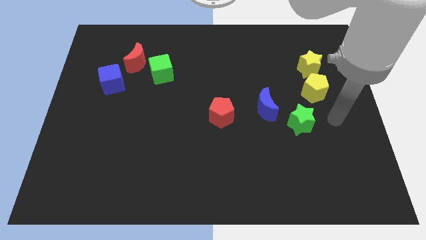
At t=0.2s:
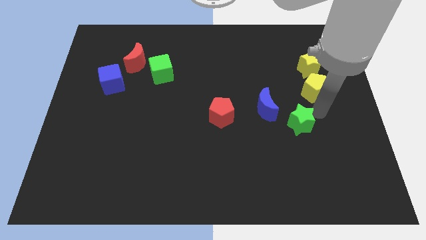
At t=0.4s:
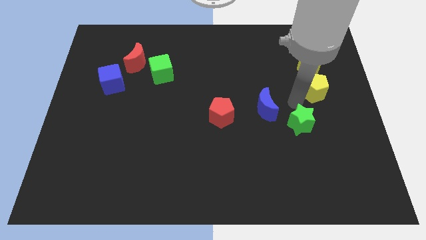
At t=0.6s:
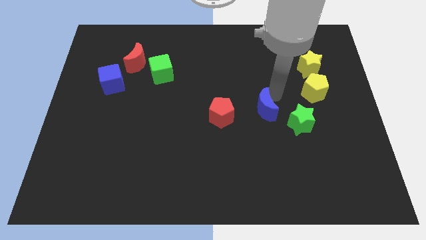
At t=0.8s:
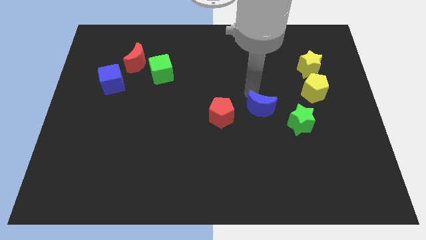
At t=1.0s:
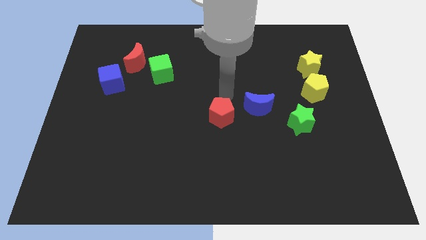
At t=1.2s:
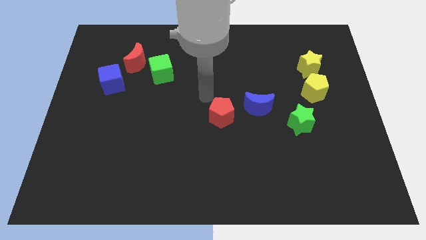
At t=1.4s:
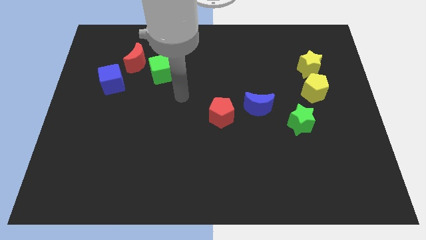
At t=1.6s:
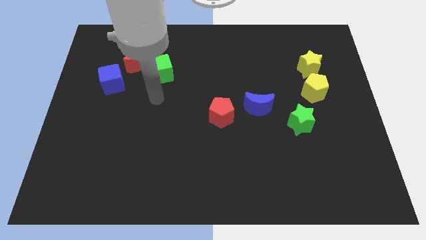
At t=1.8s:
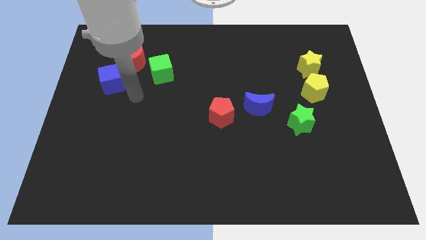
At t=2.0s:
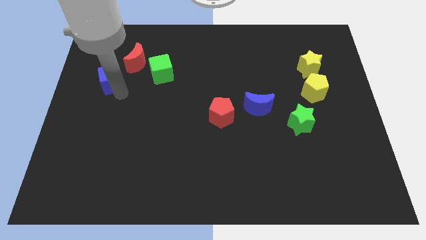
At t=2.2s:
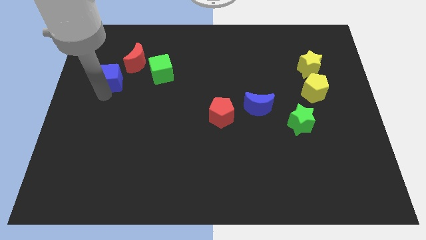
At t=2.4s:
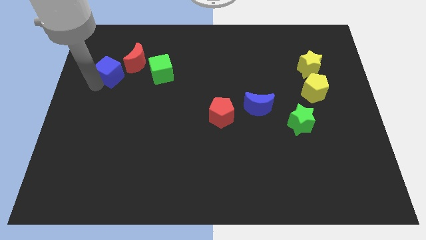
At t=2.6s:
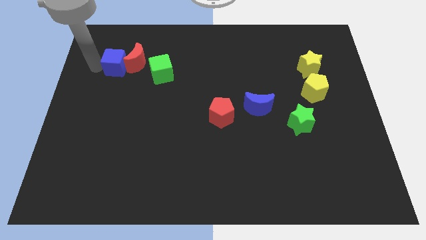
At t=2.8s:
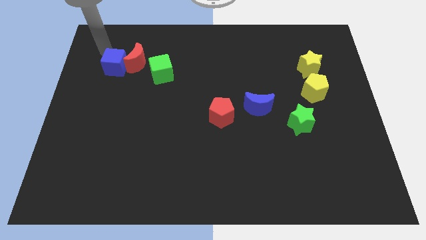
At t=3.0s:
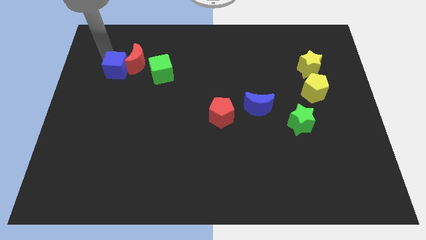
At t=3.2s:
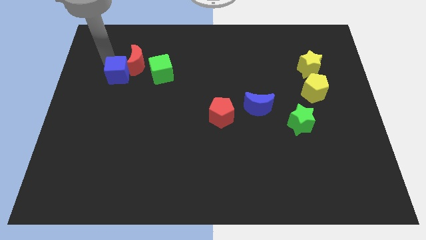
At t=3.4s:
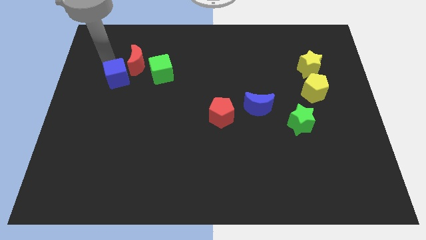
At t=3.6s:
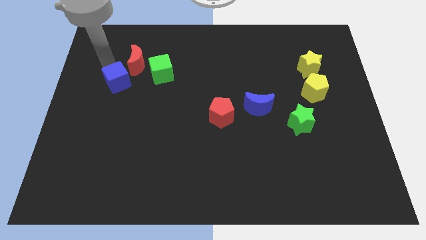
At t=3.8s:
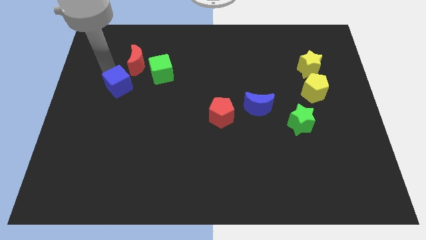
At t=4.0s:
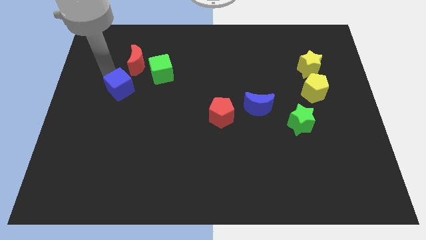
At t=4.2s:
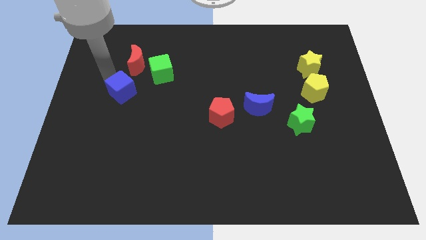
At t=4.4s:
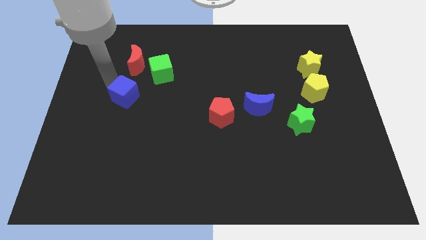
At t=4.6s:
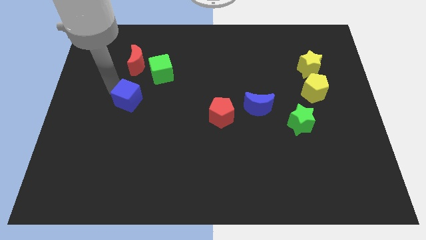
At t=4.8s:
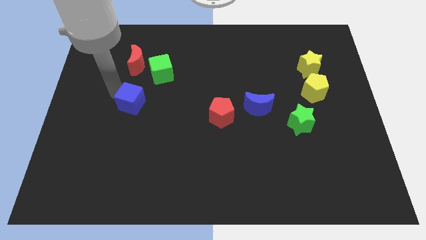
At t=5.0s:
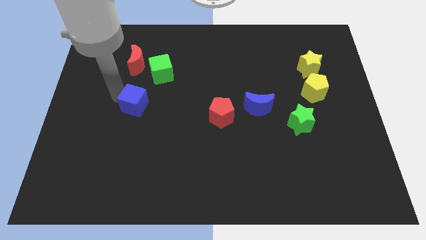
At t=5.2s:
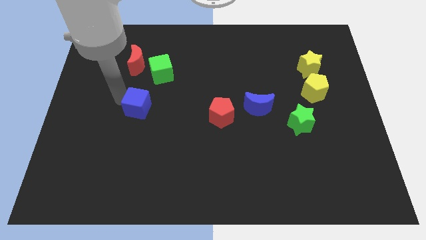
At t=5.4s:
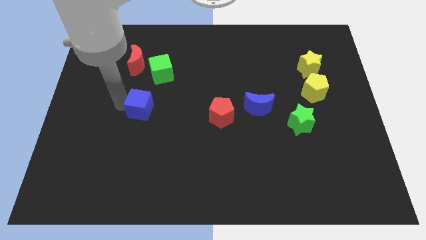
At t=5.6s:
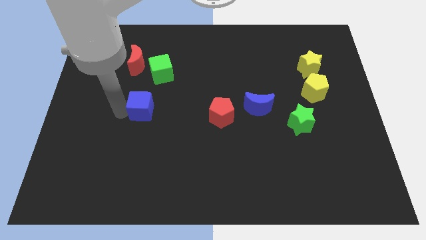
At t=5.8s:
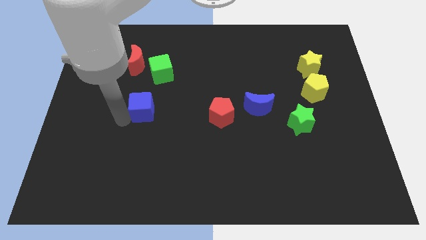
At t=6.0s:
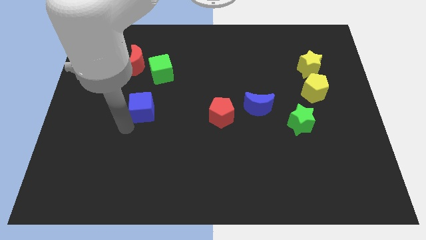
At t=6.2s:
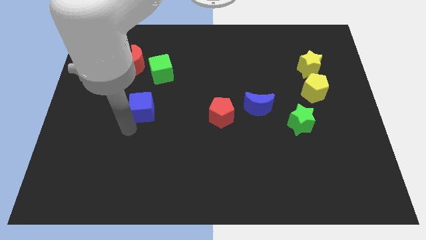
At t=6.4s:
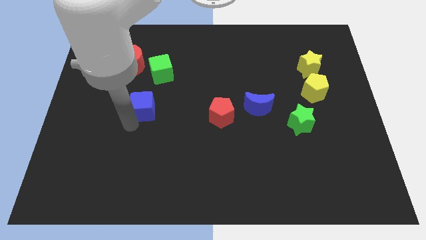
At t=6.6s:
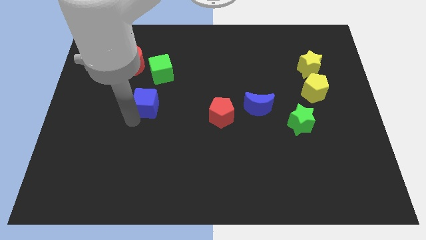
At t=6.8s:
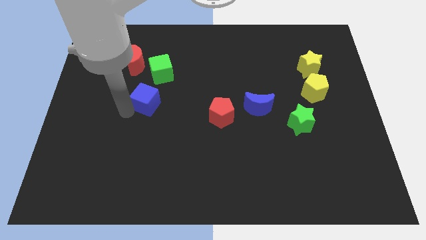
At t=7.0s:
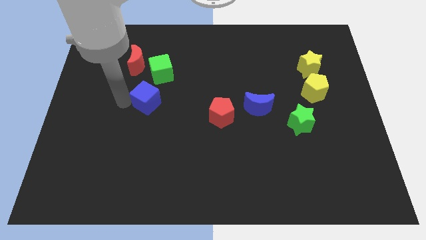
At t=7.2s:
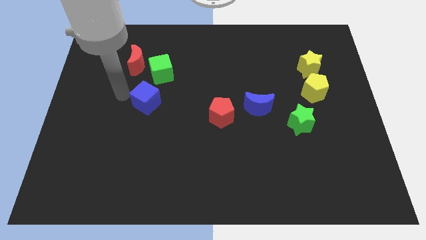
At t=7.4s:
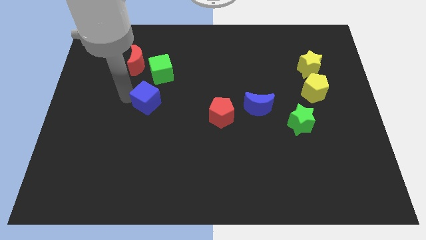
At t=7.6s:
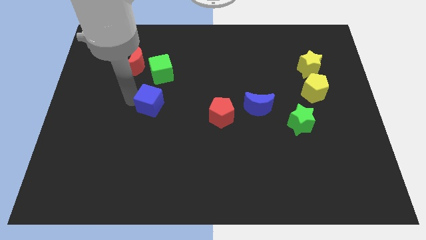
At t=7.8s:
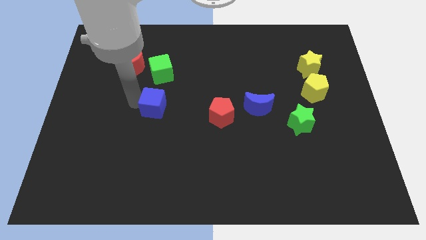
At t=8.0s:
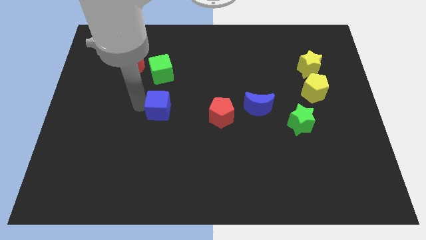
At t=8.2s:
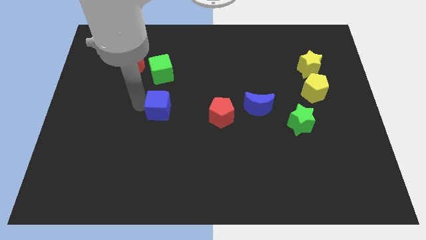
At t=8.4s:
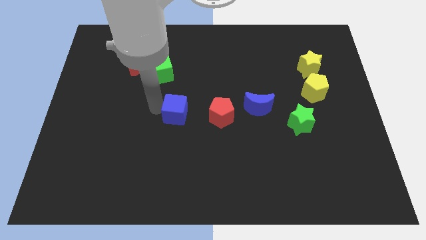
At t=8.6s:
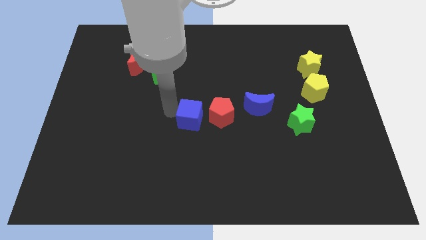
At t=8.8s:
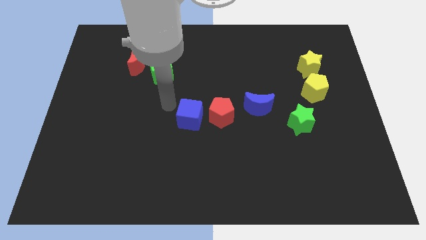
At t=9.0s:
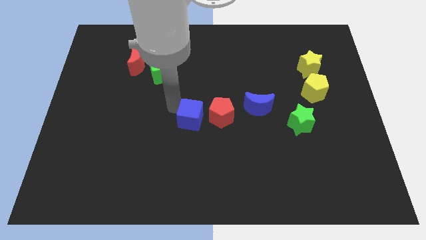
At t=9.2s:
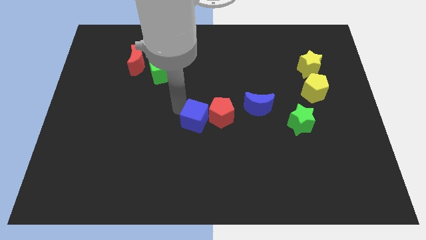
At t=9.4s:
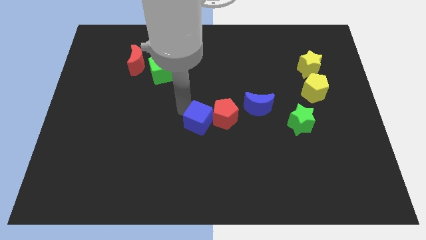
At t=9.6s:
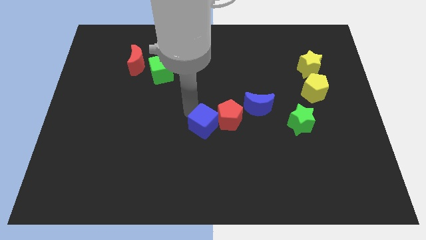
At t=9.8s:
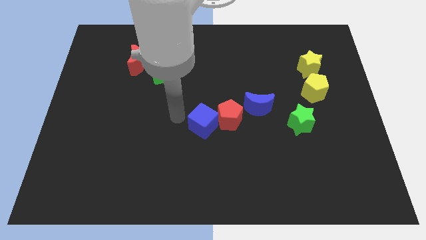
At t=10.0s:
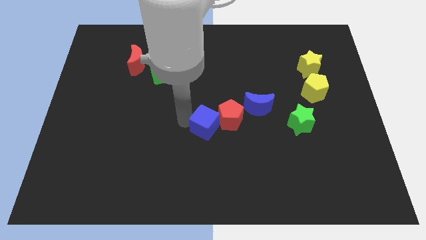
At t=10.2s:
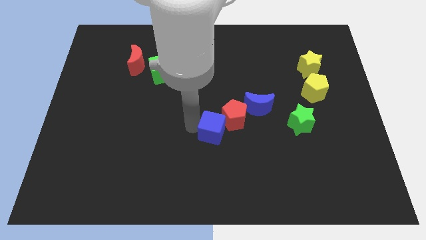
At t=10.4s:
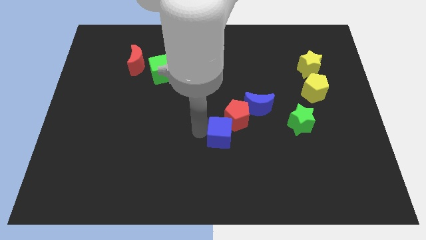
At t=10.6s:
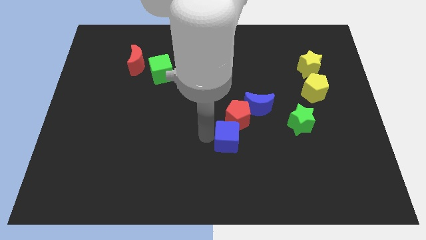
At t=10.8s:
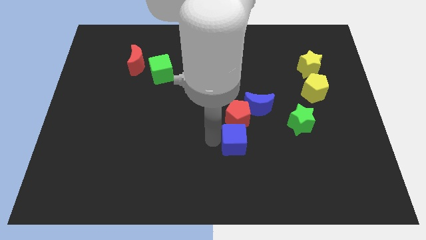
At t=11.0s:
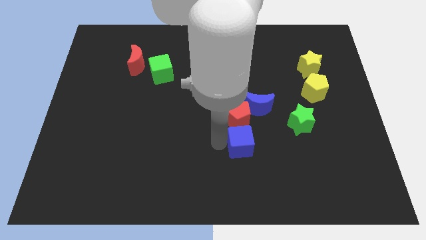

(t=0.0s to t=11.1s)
push the blue cube to the bottom right of the red pentagon

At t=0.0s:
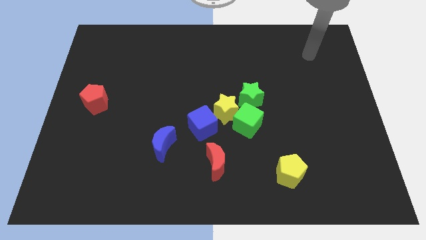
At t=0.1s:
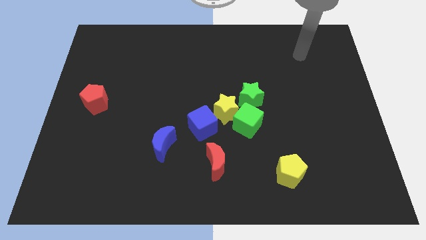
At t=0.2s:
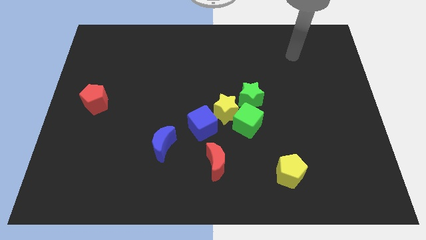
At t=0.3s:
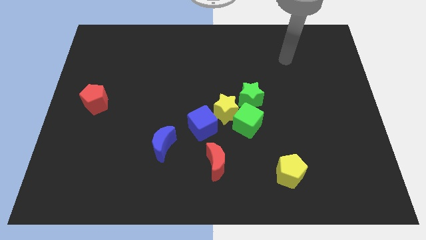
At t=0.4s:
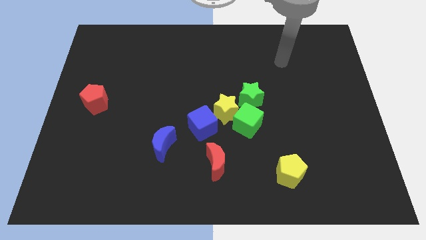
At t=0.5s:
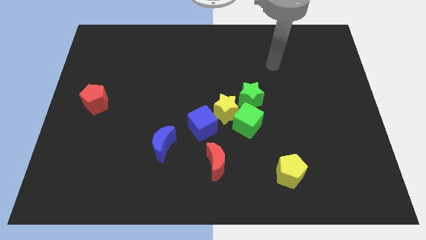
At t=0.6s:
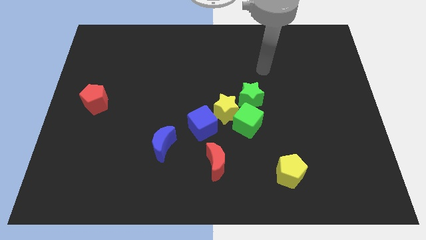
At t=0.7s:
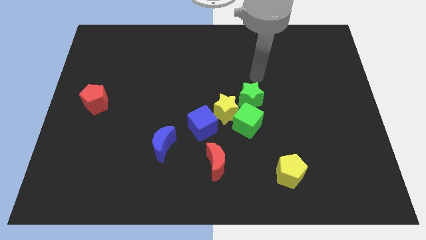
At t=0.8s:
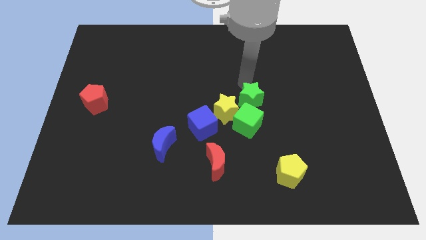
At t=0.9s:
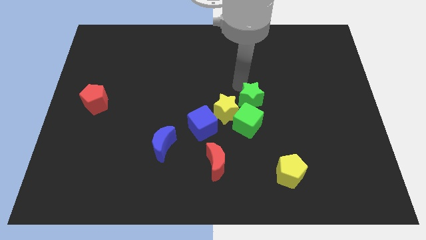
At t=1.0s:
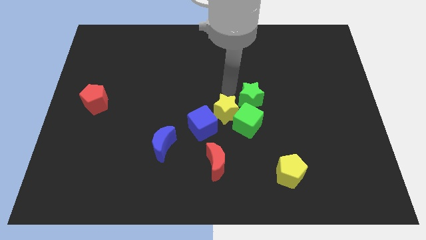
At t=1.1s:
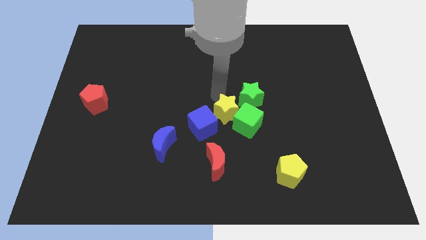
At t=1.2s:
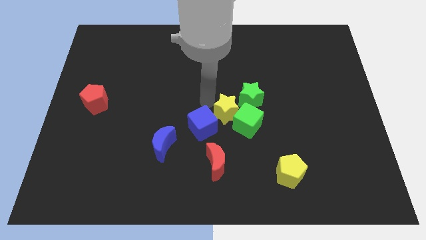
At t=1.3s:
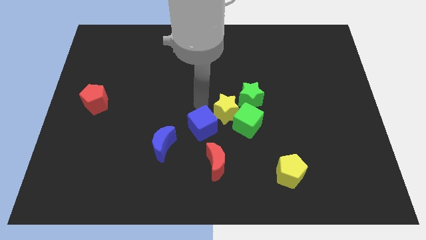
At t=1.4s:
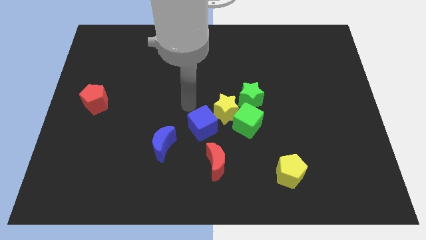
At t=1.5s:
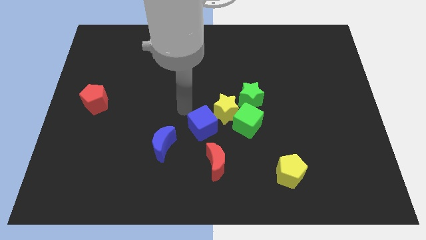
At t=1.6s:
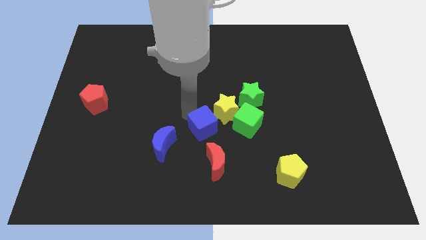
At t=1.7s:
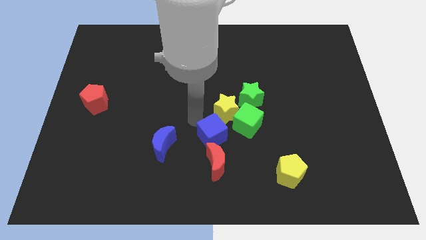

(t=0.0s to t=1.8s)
put the blue cube to the bottom of the yellow star

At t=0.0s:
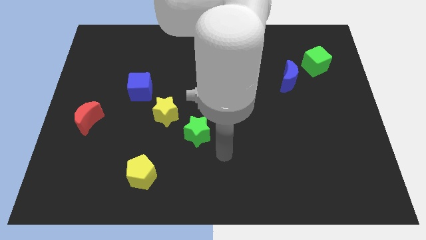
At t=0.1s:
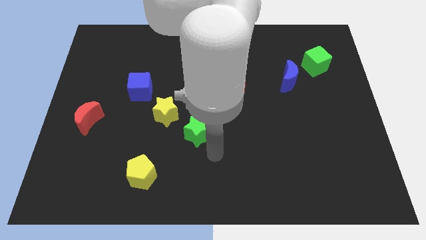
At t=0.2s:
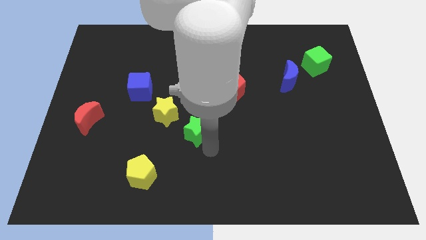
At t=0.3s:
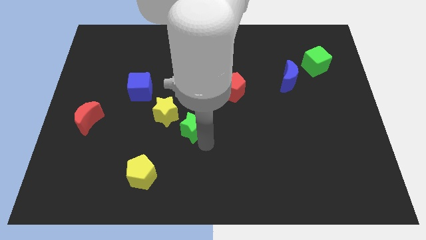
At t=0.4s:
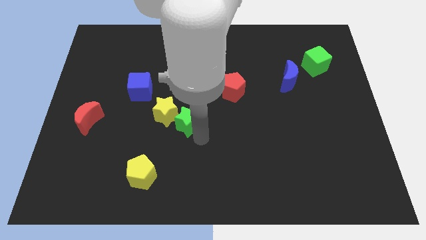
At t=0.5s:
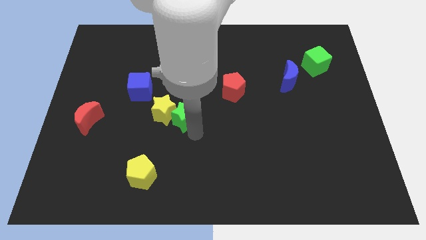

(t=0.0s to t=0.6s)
slide the green star diagonally up and to the right of the yellow star
